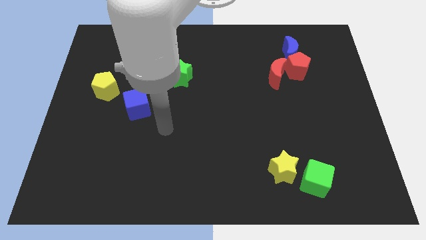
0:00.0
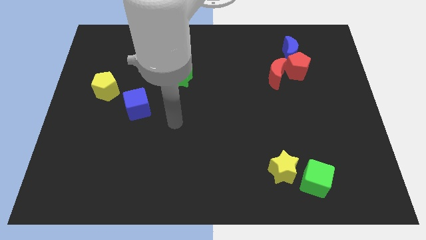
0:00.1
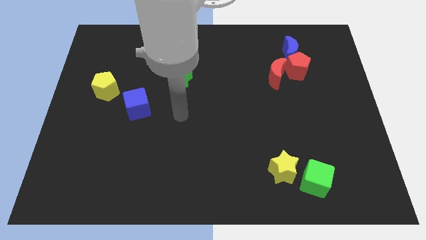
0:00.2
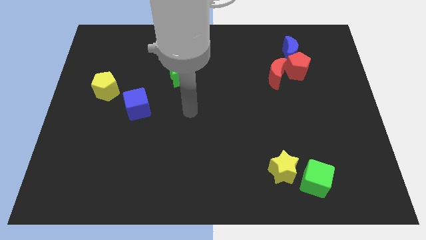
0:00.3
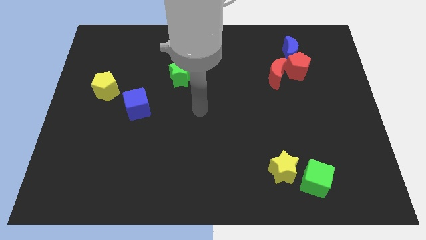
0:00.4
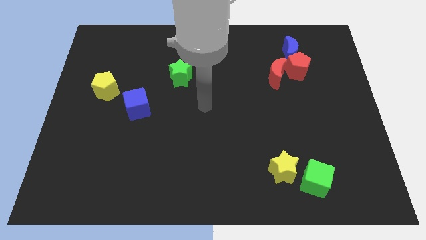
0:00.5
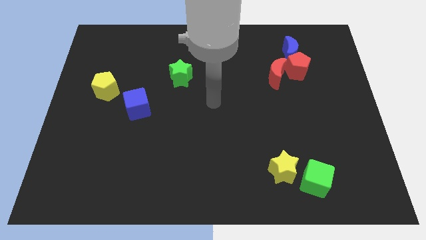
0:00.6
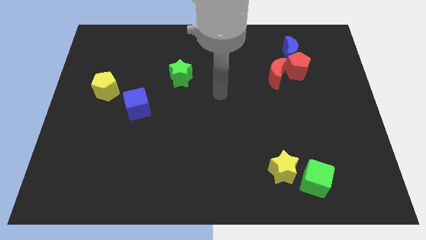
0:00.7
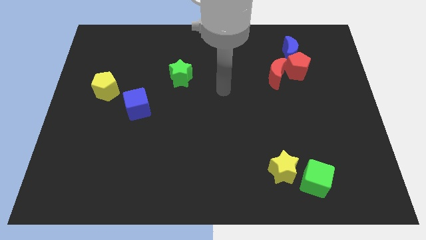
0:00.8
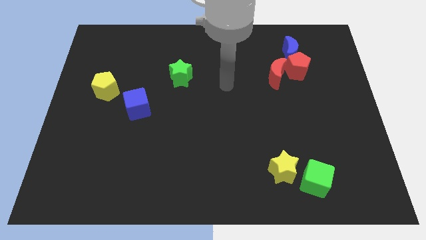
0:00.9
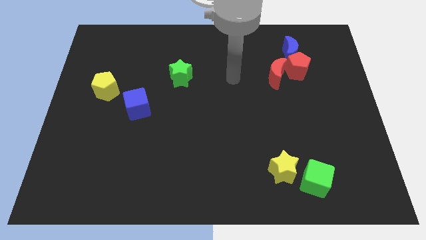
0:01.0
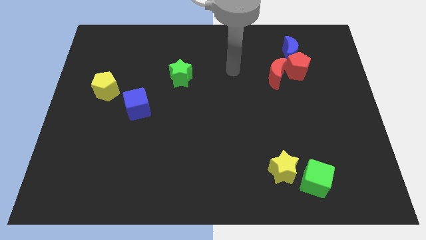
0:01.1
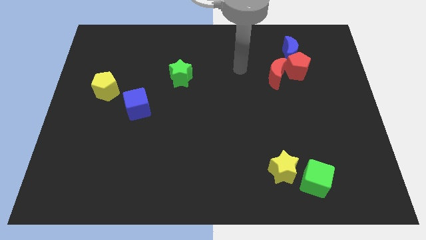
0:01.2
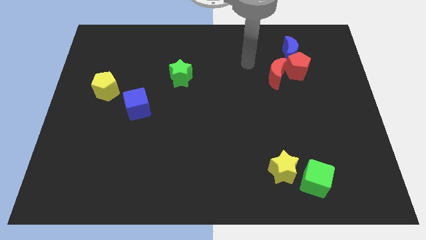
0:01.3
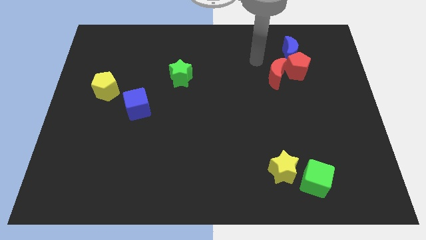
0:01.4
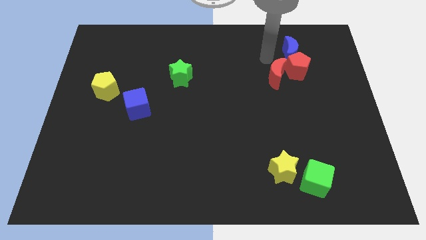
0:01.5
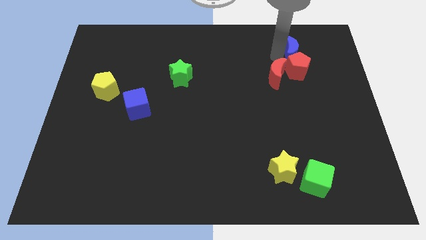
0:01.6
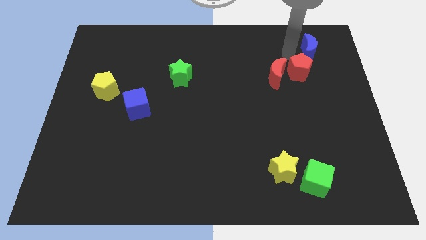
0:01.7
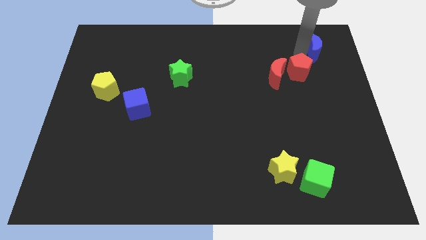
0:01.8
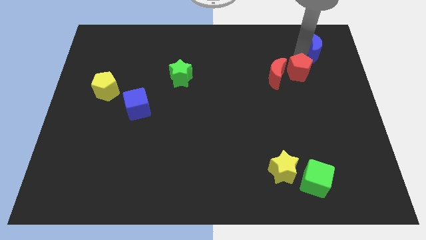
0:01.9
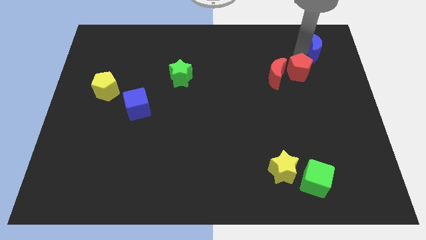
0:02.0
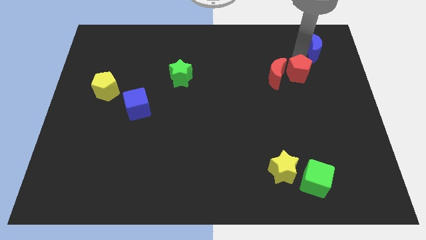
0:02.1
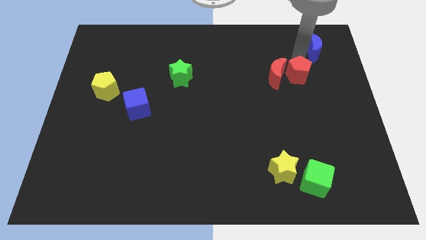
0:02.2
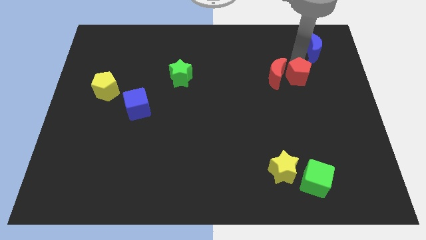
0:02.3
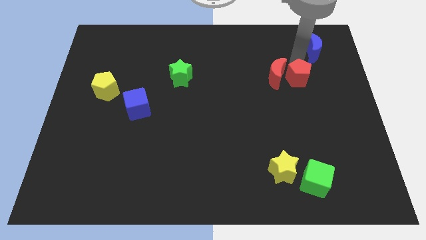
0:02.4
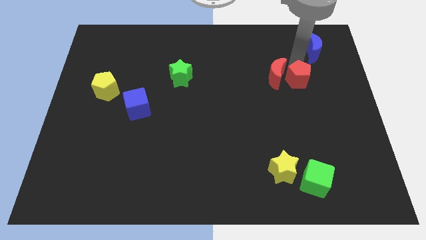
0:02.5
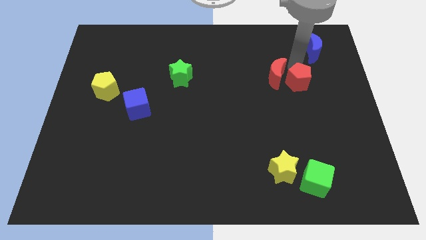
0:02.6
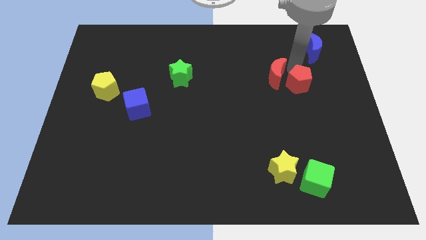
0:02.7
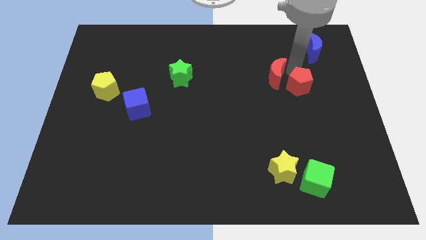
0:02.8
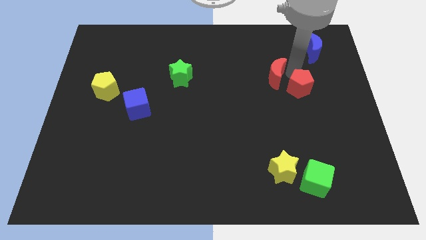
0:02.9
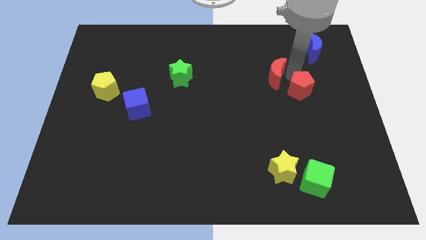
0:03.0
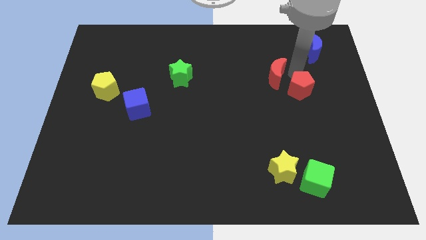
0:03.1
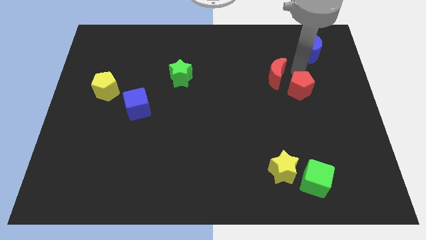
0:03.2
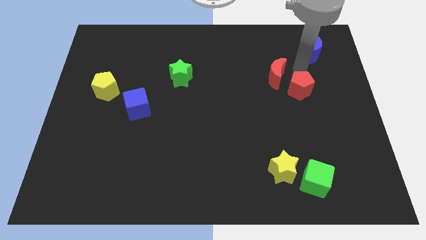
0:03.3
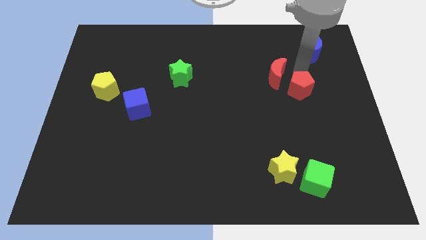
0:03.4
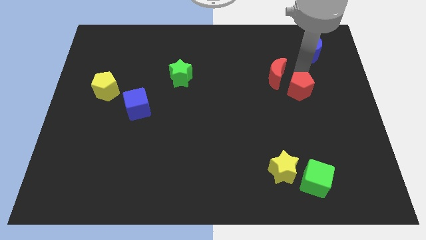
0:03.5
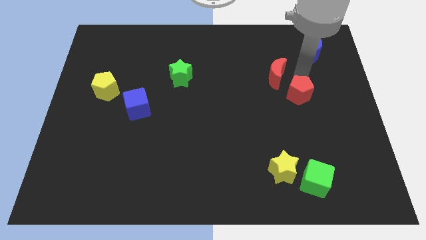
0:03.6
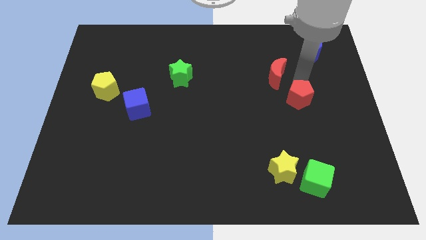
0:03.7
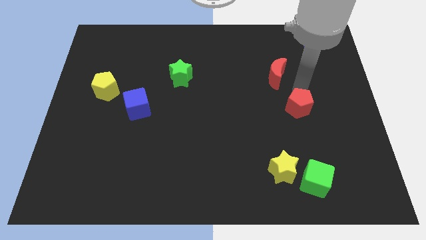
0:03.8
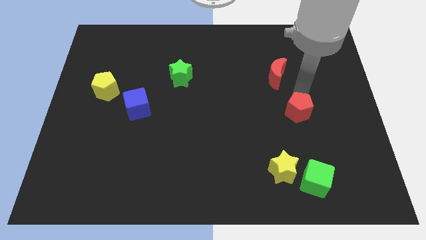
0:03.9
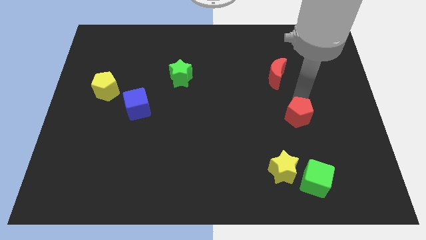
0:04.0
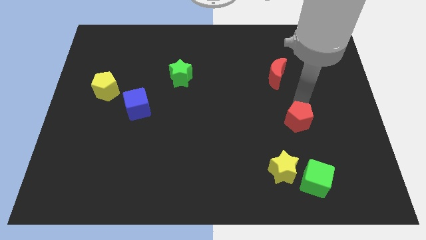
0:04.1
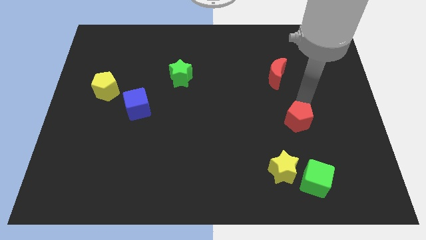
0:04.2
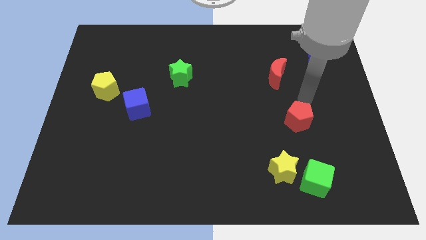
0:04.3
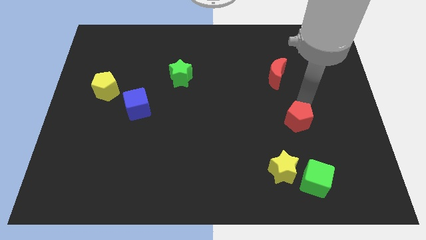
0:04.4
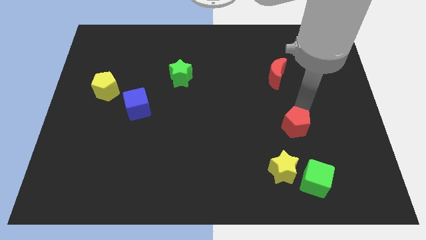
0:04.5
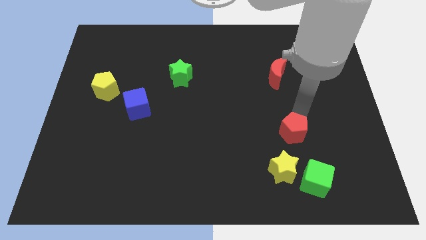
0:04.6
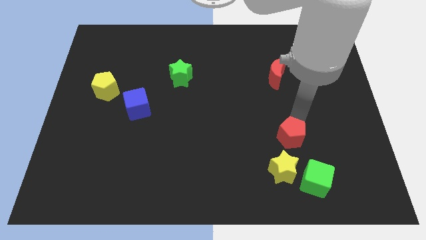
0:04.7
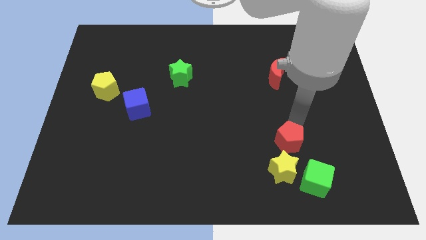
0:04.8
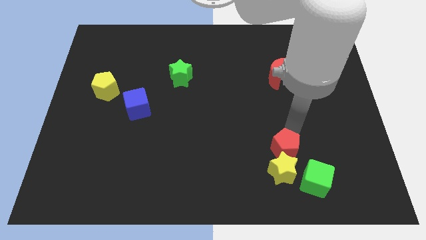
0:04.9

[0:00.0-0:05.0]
move the red pentagon next to the yellow star

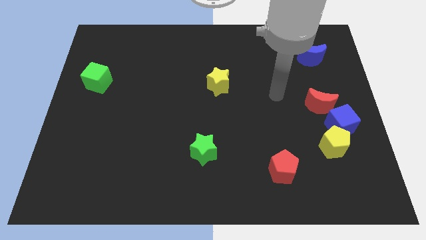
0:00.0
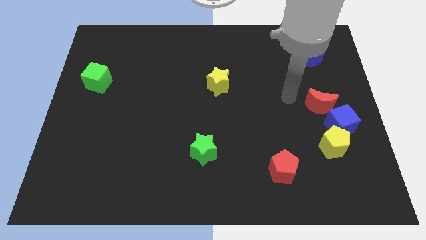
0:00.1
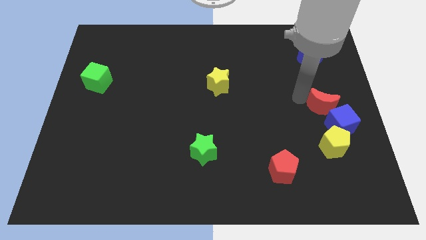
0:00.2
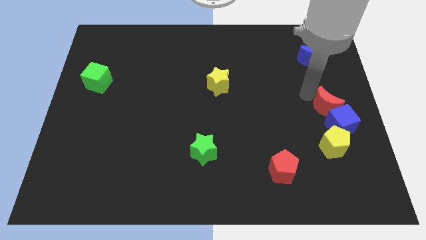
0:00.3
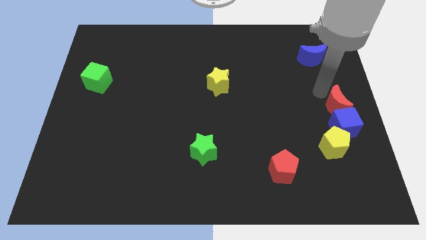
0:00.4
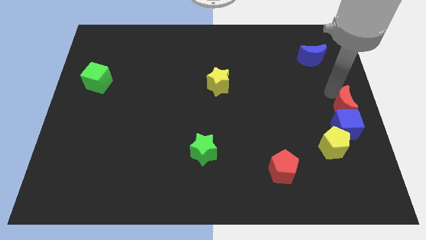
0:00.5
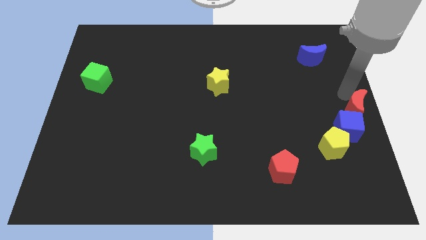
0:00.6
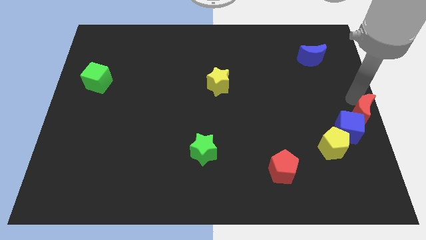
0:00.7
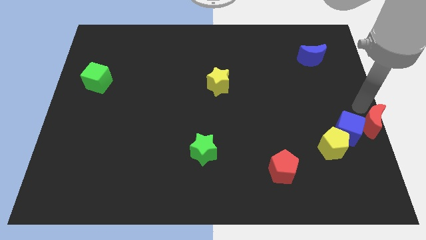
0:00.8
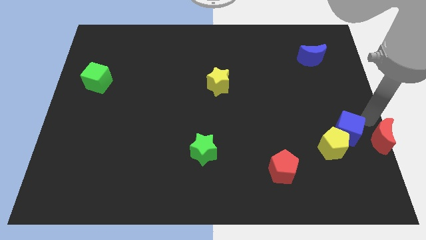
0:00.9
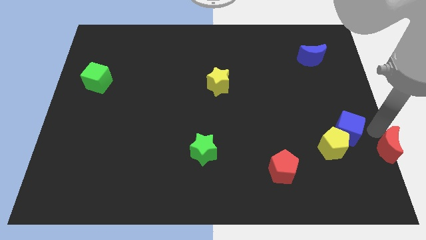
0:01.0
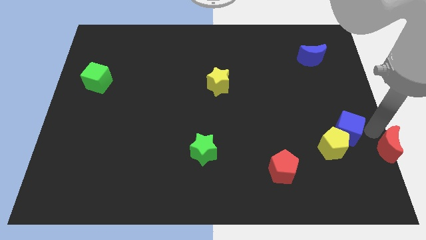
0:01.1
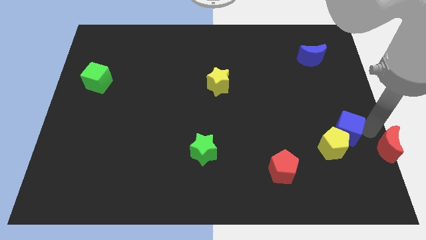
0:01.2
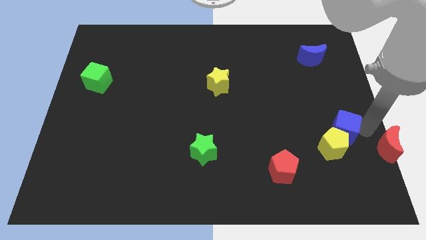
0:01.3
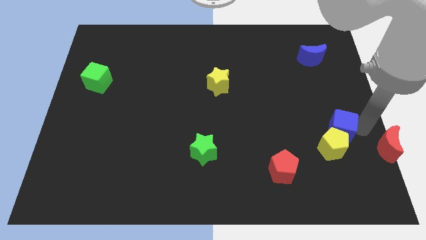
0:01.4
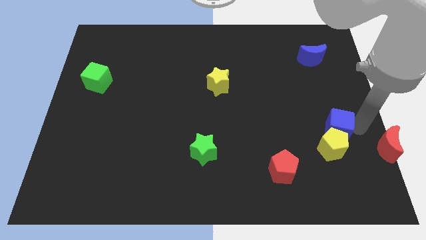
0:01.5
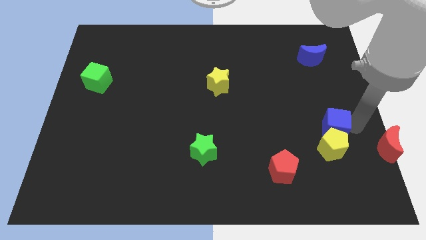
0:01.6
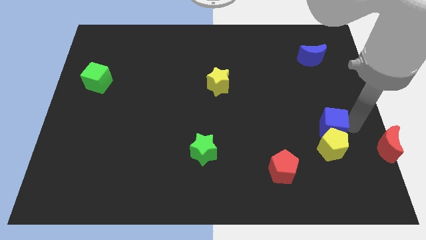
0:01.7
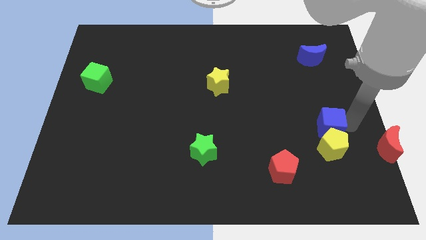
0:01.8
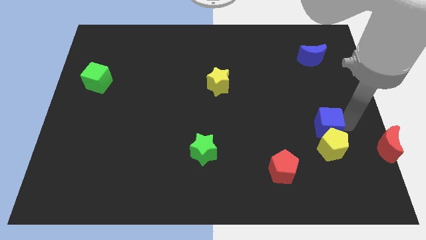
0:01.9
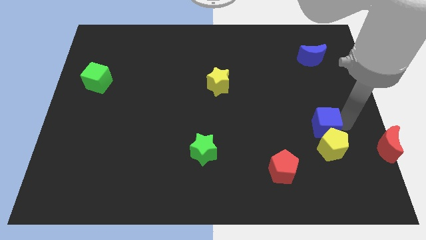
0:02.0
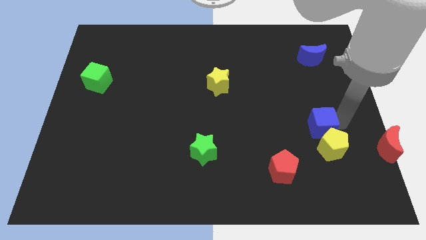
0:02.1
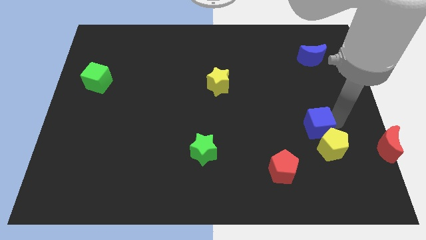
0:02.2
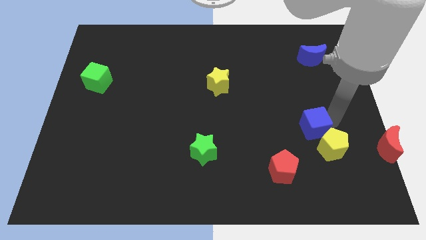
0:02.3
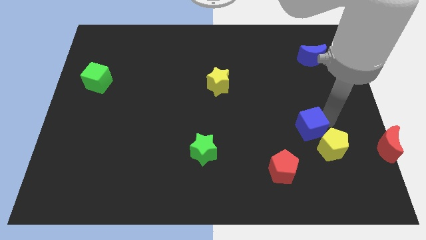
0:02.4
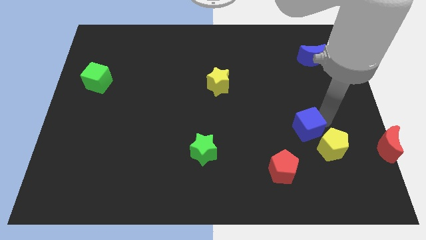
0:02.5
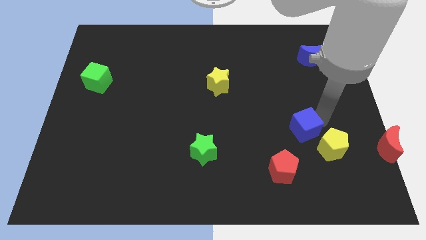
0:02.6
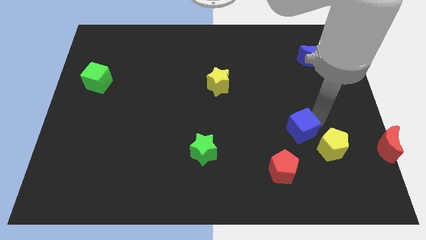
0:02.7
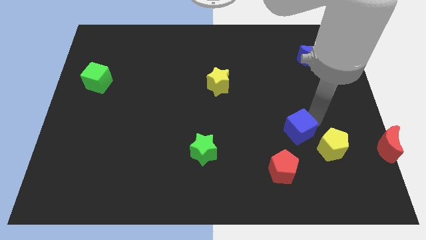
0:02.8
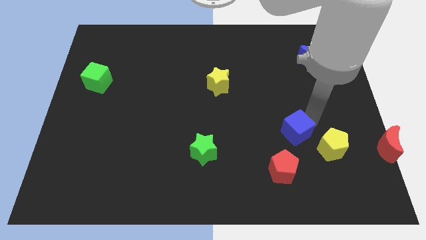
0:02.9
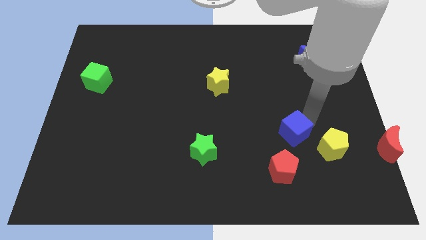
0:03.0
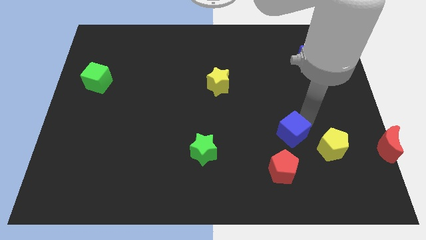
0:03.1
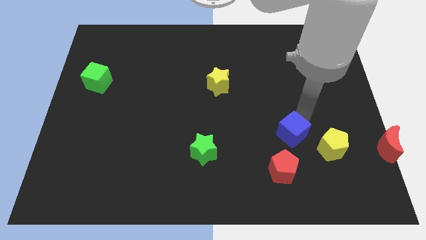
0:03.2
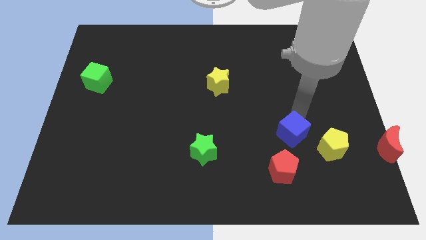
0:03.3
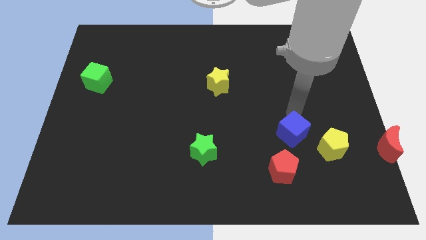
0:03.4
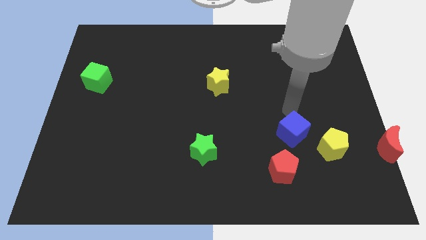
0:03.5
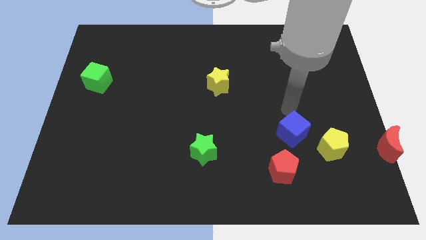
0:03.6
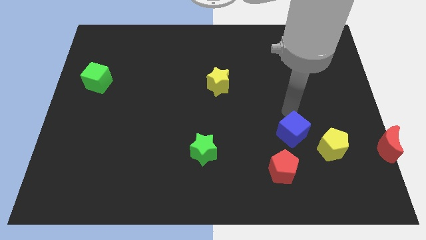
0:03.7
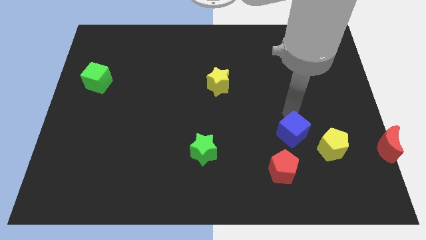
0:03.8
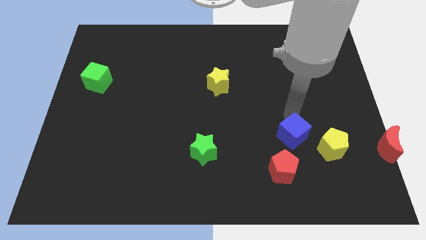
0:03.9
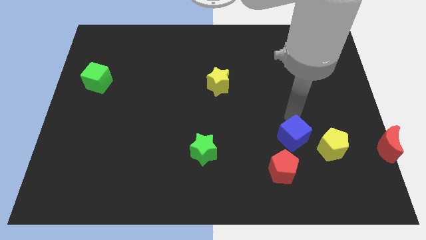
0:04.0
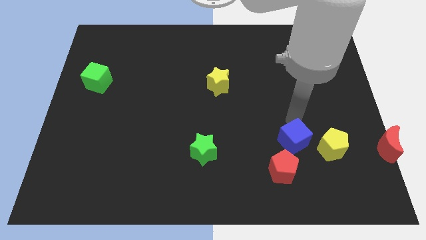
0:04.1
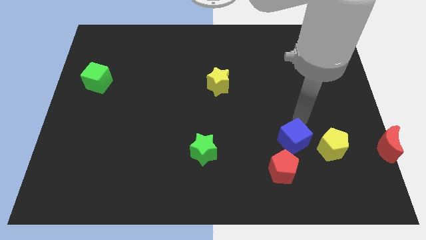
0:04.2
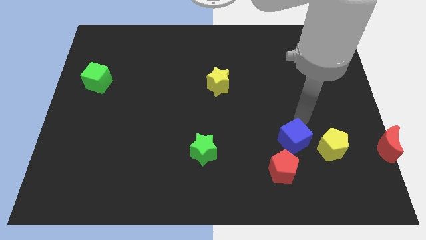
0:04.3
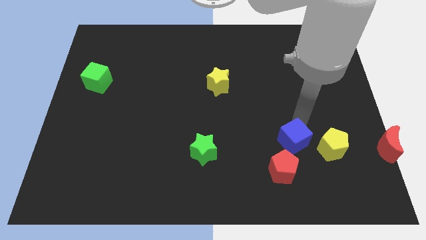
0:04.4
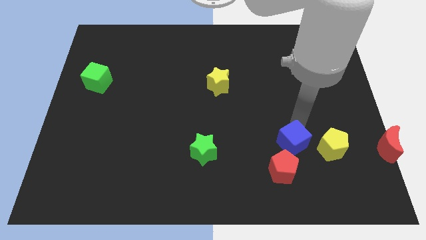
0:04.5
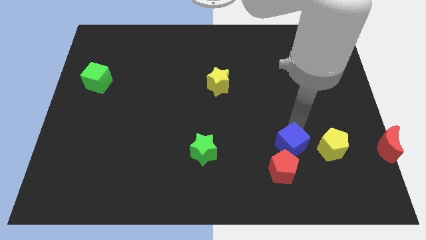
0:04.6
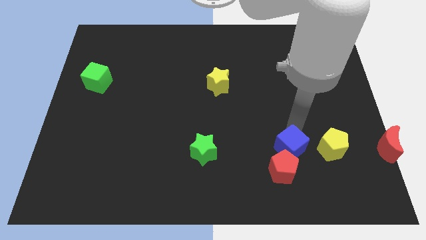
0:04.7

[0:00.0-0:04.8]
slide the blue cube towards the red pentagon
